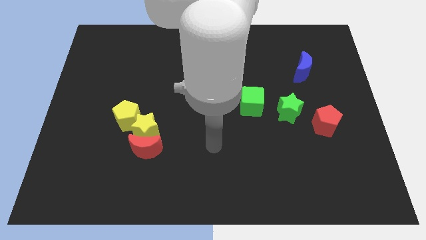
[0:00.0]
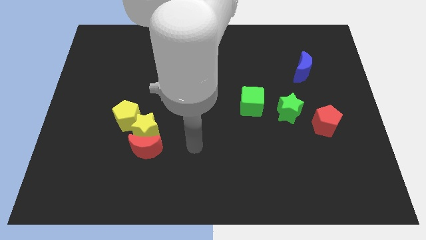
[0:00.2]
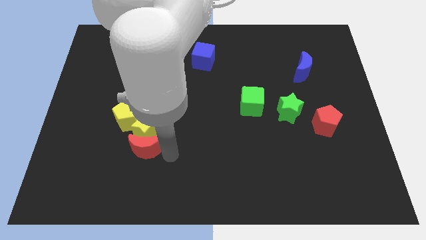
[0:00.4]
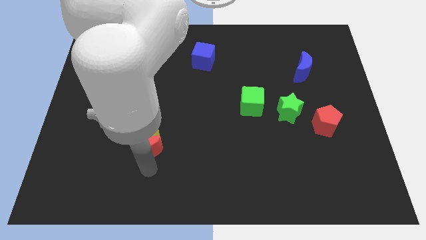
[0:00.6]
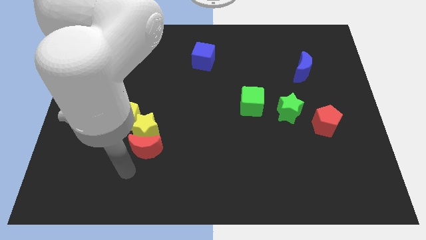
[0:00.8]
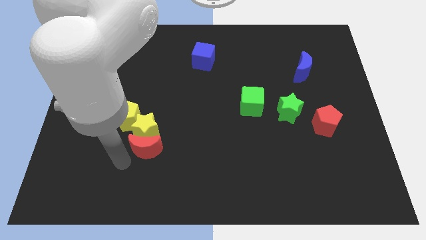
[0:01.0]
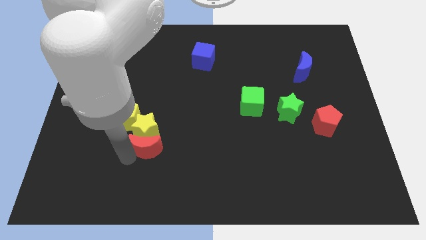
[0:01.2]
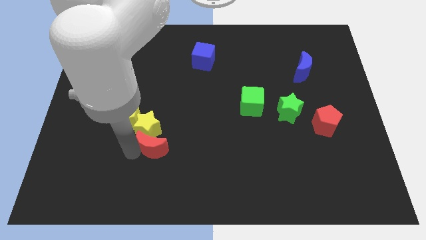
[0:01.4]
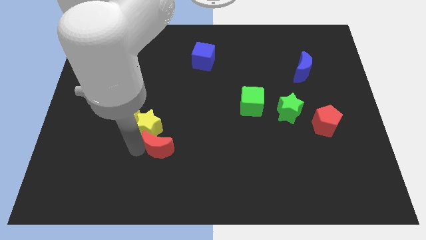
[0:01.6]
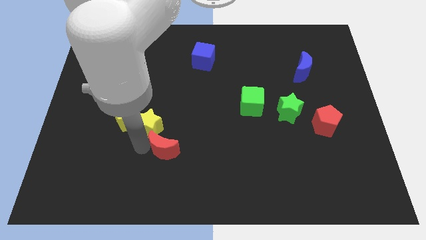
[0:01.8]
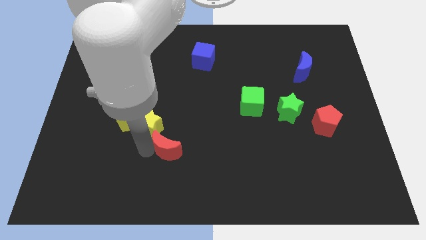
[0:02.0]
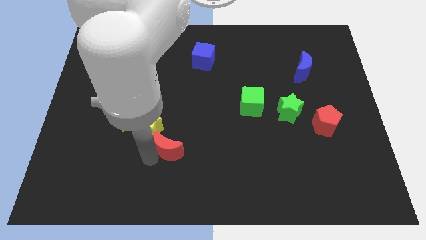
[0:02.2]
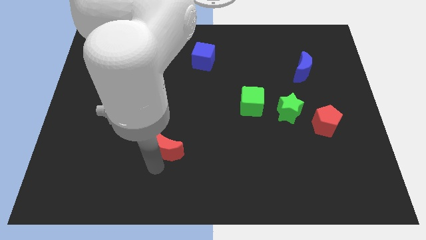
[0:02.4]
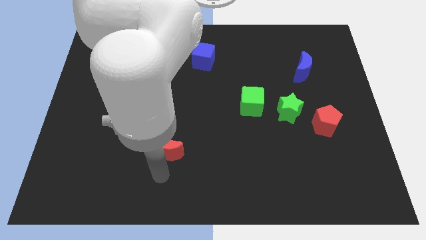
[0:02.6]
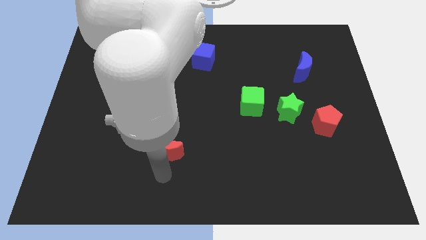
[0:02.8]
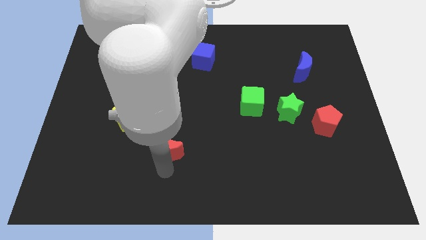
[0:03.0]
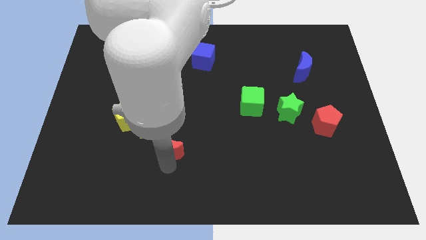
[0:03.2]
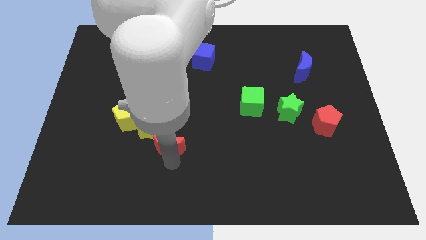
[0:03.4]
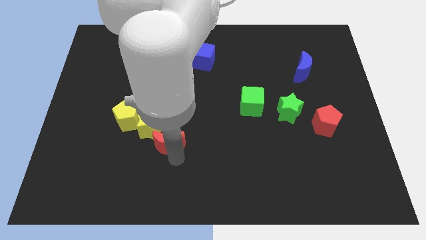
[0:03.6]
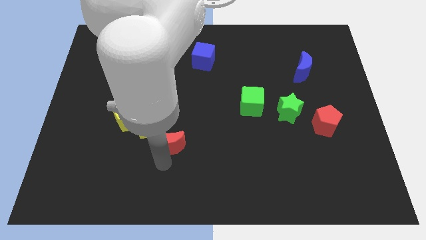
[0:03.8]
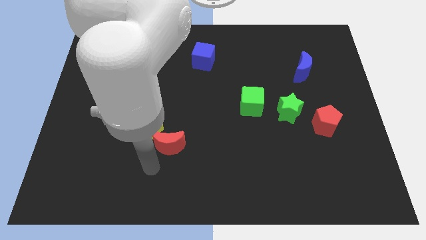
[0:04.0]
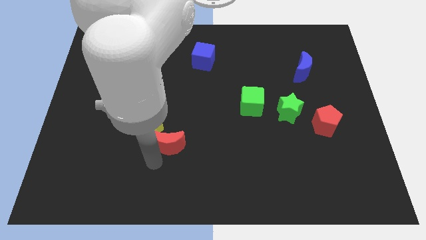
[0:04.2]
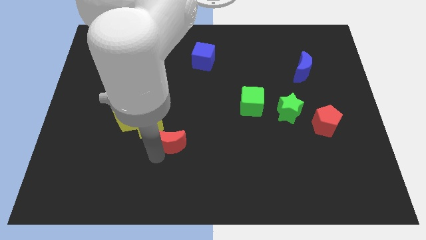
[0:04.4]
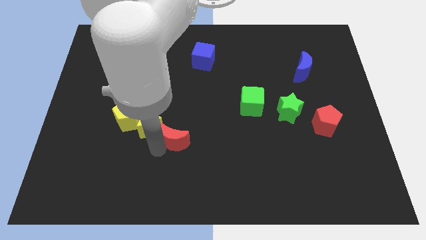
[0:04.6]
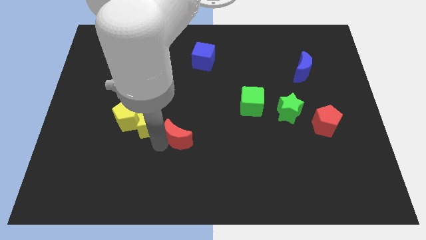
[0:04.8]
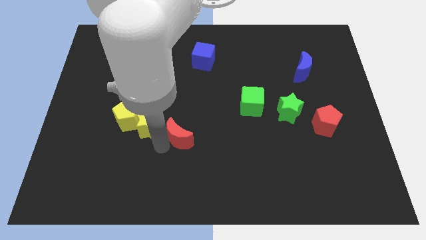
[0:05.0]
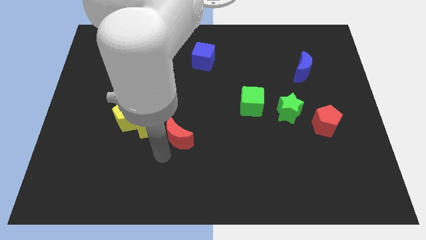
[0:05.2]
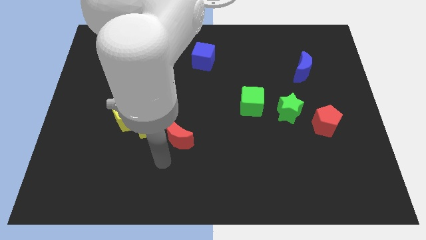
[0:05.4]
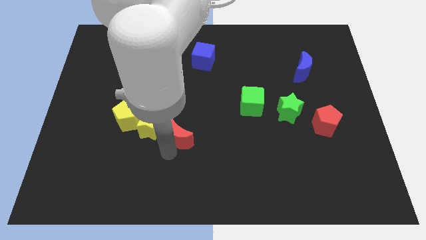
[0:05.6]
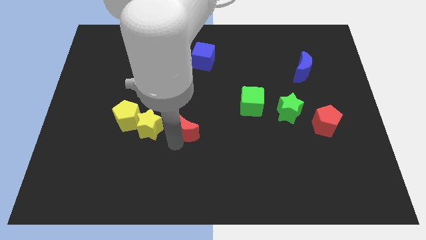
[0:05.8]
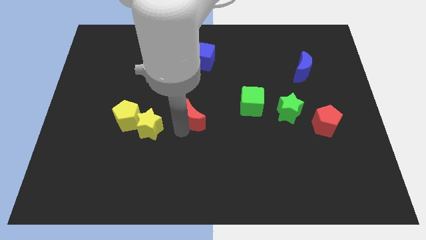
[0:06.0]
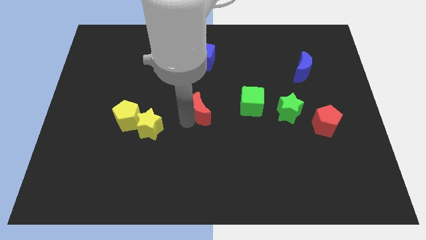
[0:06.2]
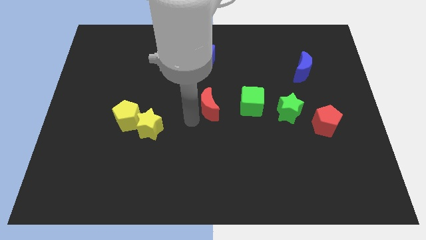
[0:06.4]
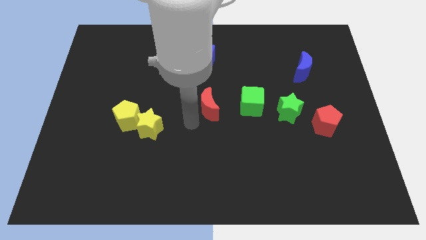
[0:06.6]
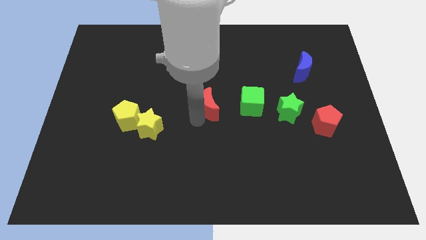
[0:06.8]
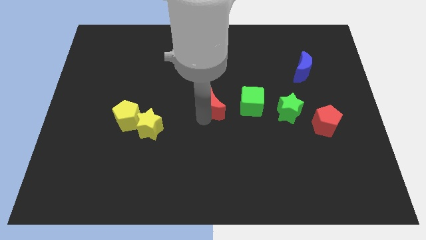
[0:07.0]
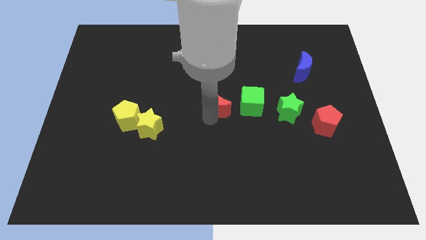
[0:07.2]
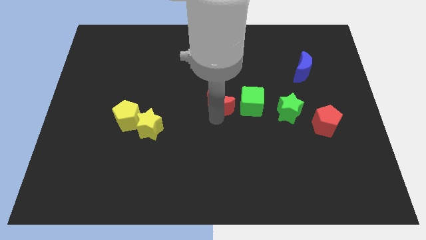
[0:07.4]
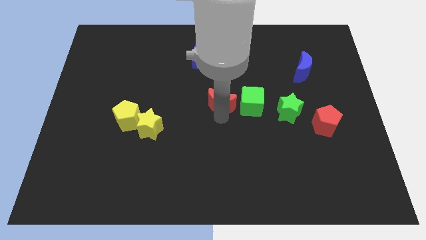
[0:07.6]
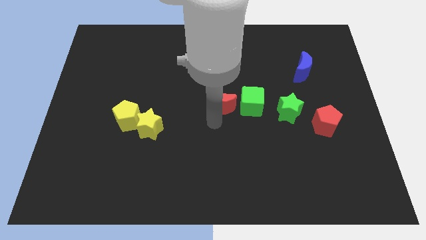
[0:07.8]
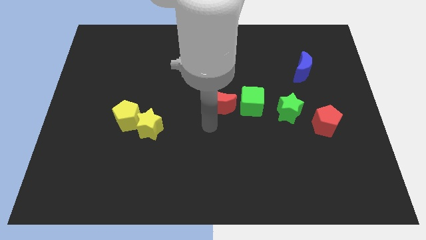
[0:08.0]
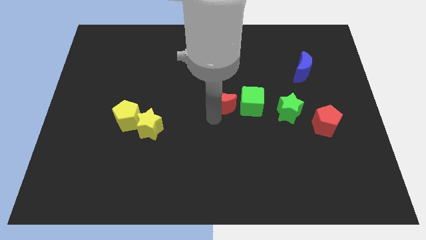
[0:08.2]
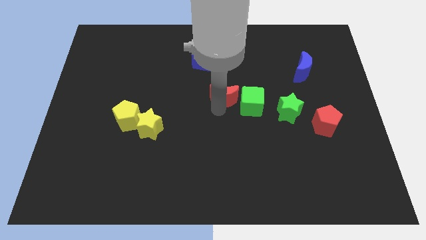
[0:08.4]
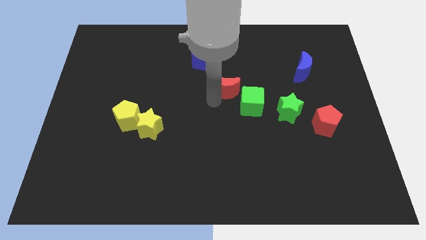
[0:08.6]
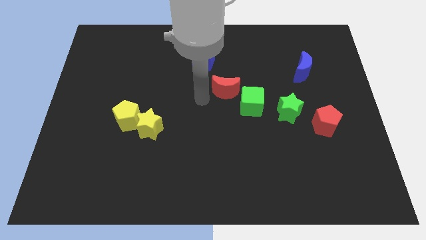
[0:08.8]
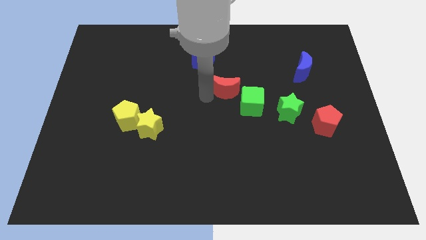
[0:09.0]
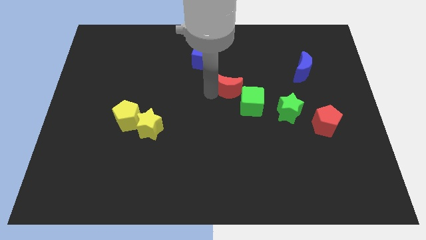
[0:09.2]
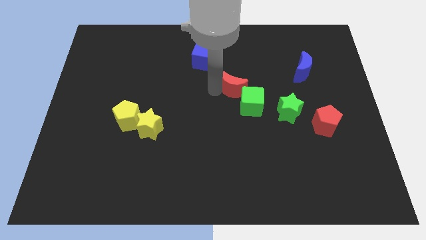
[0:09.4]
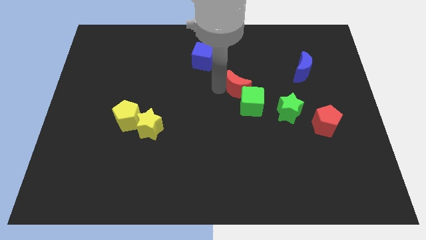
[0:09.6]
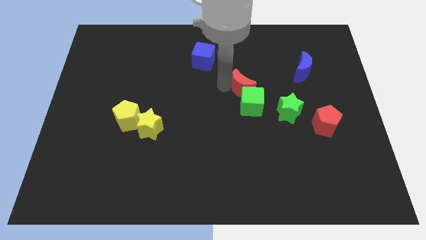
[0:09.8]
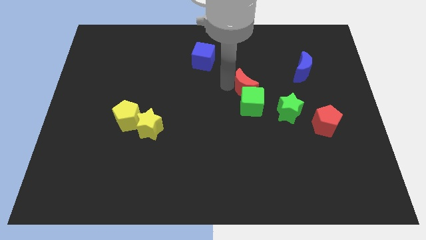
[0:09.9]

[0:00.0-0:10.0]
move the red moon to the top right side of the green cube

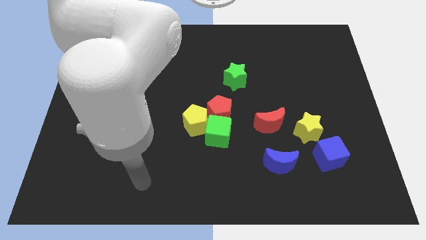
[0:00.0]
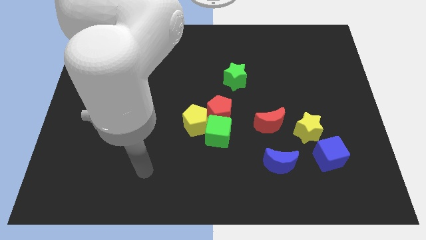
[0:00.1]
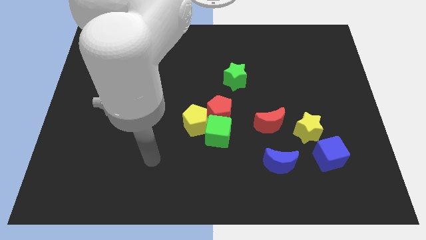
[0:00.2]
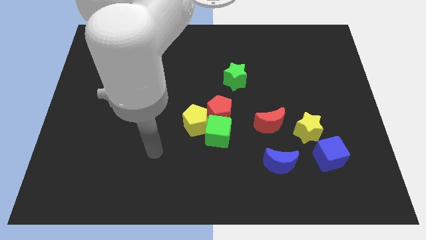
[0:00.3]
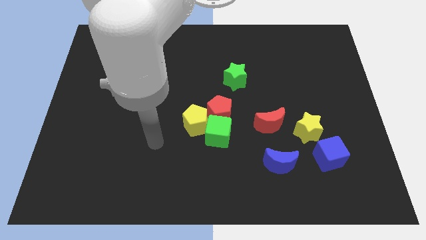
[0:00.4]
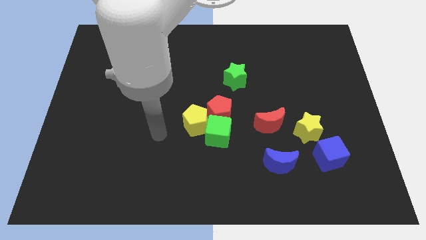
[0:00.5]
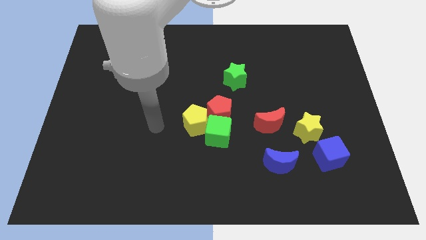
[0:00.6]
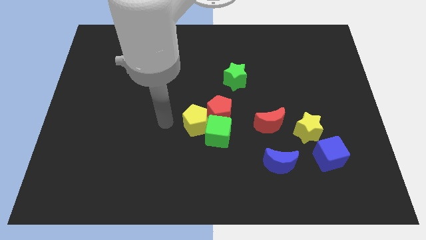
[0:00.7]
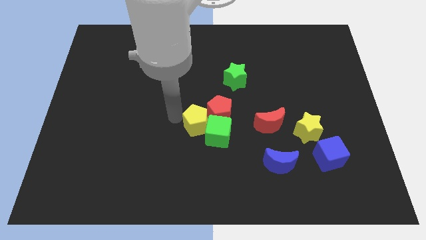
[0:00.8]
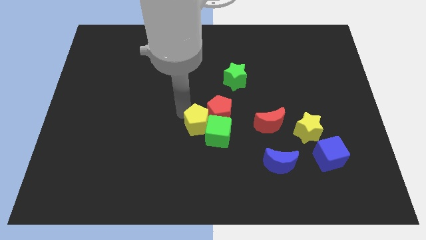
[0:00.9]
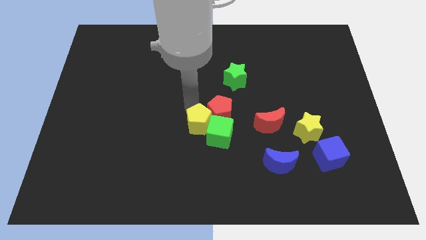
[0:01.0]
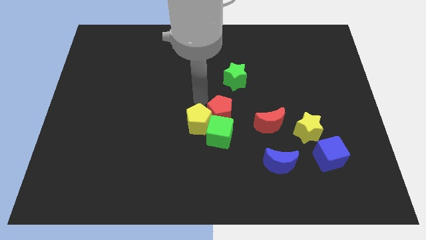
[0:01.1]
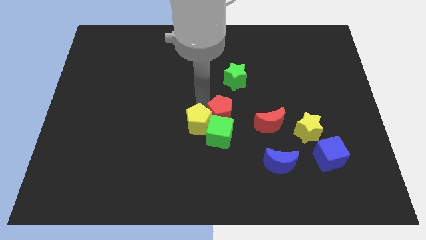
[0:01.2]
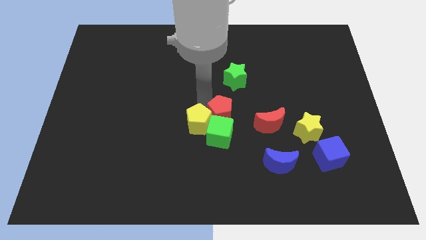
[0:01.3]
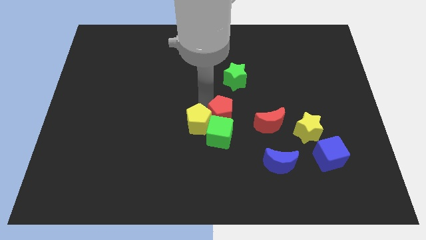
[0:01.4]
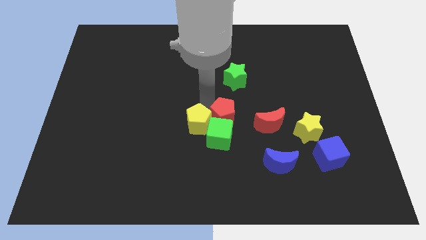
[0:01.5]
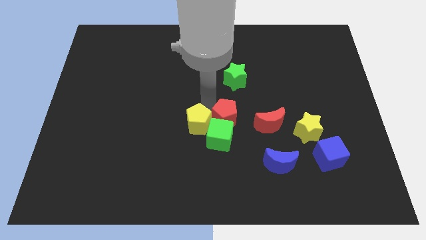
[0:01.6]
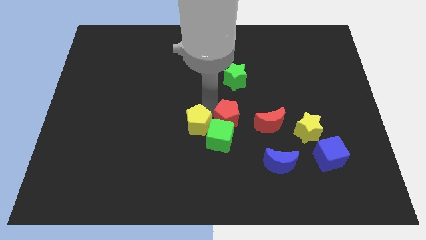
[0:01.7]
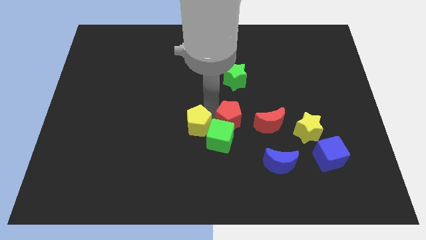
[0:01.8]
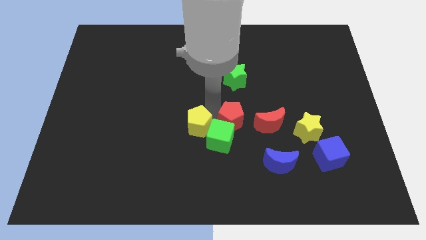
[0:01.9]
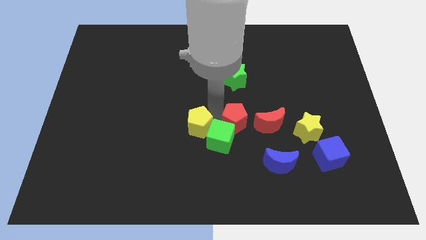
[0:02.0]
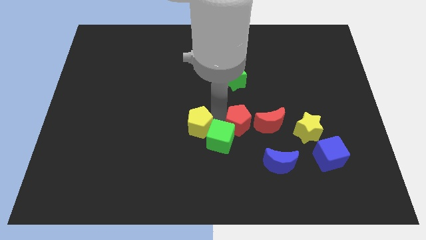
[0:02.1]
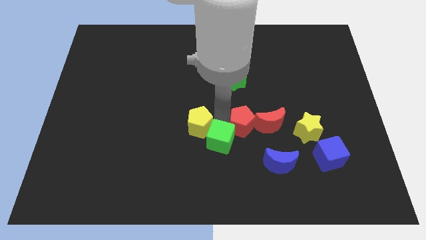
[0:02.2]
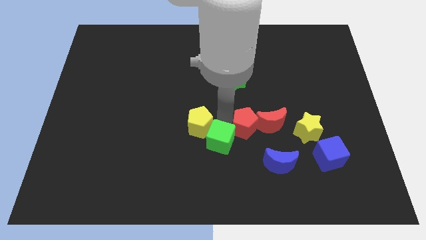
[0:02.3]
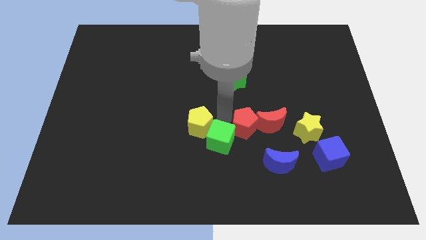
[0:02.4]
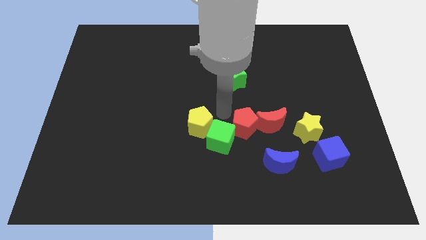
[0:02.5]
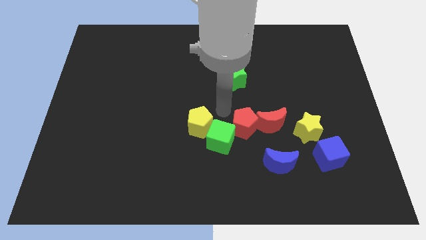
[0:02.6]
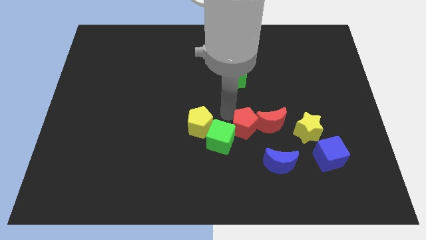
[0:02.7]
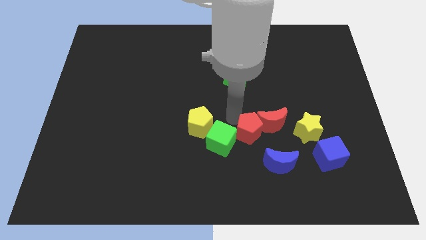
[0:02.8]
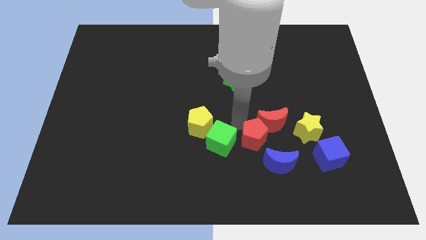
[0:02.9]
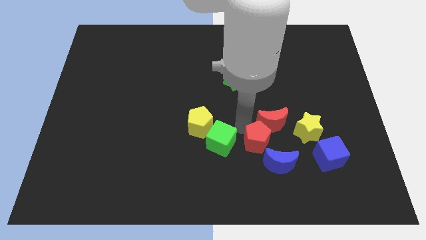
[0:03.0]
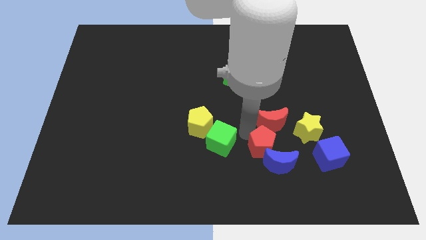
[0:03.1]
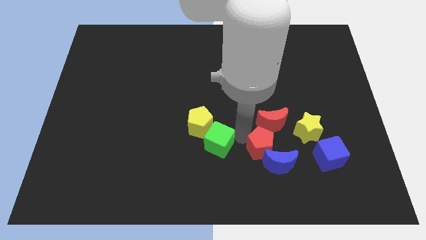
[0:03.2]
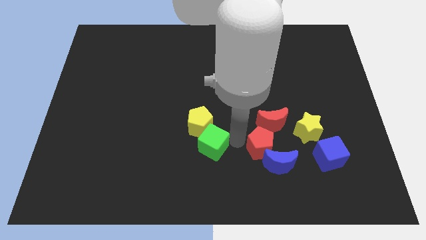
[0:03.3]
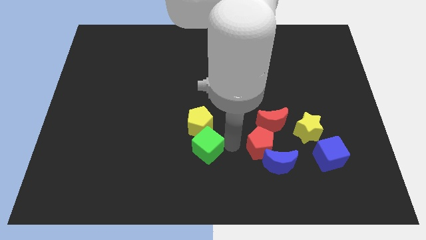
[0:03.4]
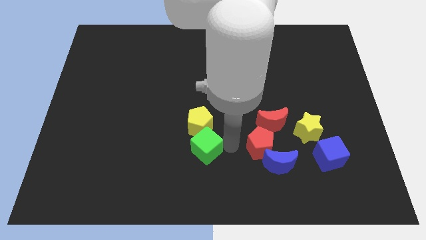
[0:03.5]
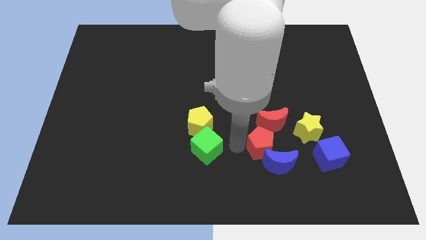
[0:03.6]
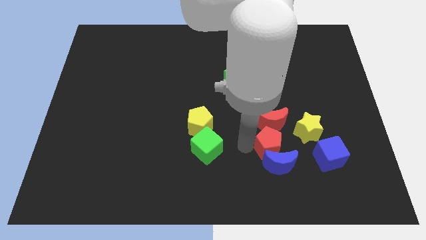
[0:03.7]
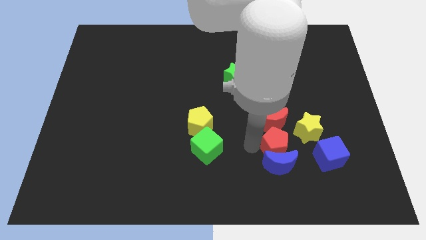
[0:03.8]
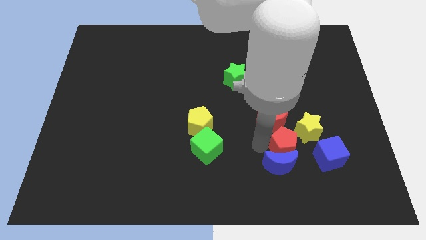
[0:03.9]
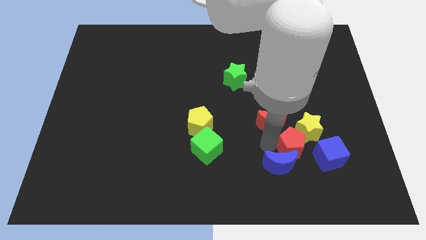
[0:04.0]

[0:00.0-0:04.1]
push the red pentagon below the yellow star
